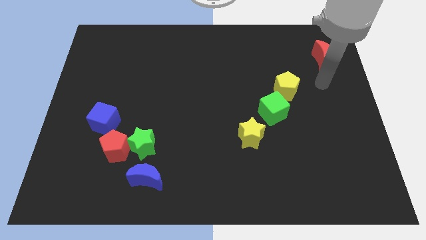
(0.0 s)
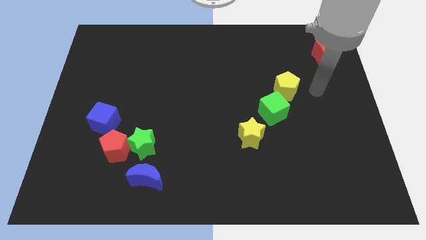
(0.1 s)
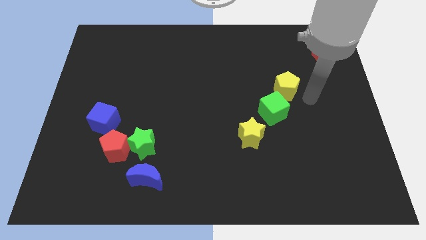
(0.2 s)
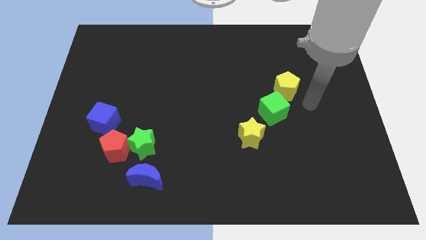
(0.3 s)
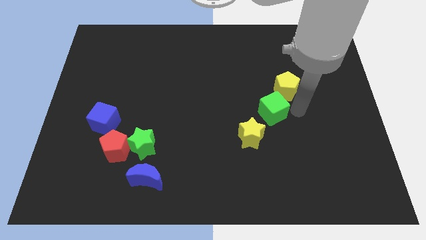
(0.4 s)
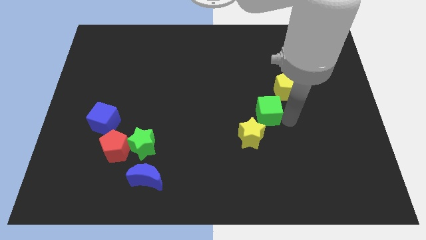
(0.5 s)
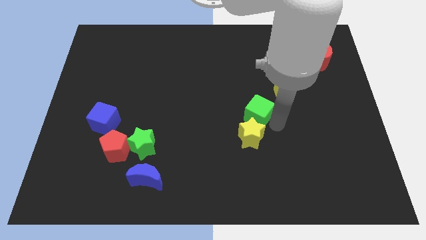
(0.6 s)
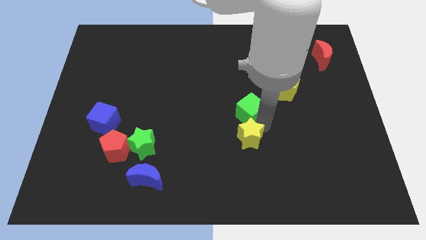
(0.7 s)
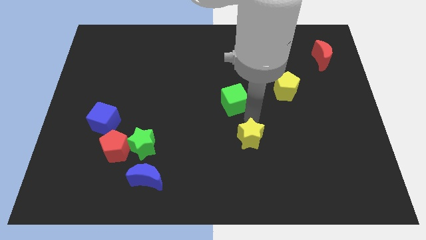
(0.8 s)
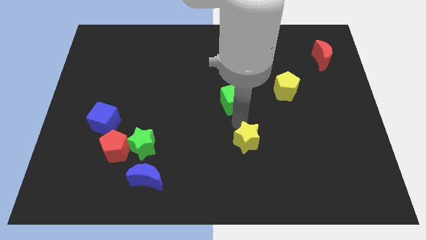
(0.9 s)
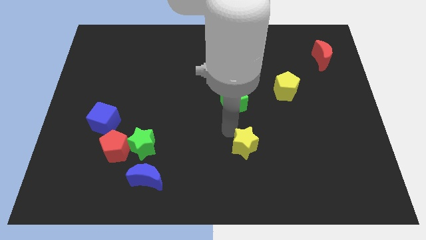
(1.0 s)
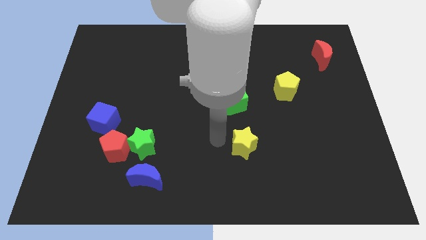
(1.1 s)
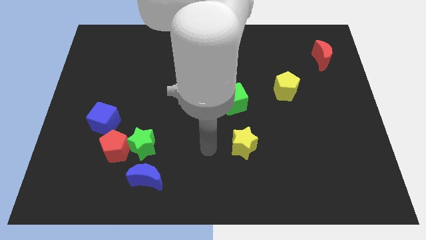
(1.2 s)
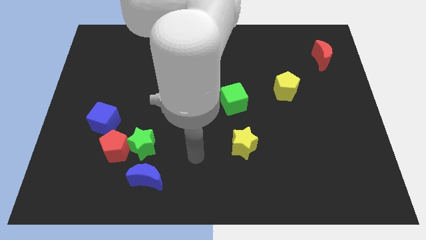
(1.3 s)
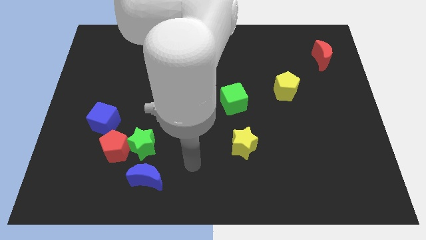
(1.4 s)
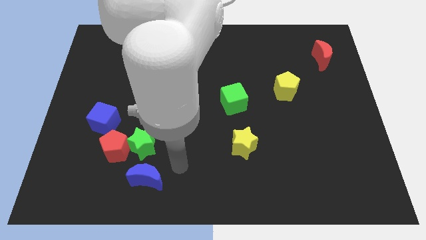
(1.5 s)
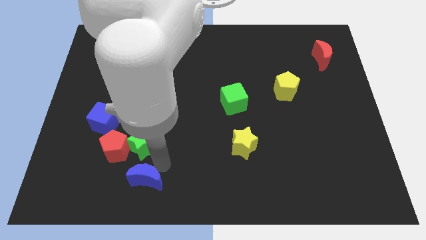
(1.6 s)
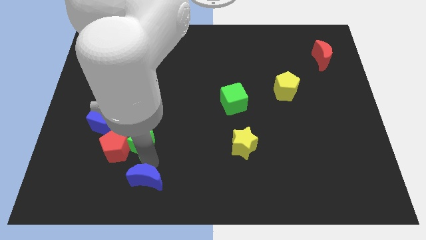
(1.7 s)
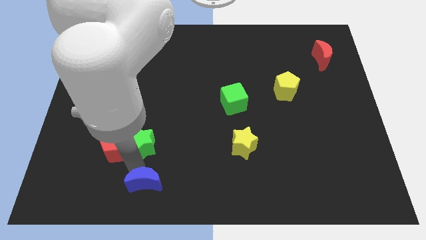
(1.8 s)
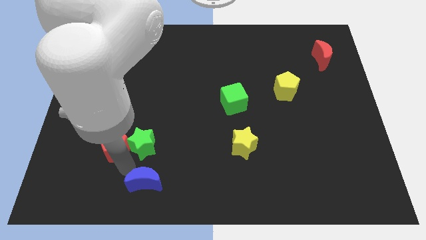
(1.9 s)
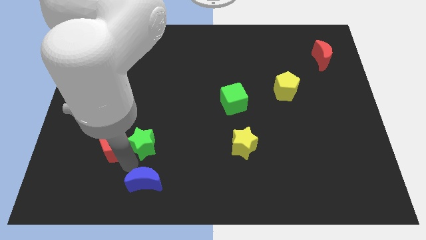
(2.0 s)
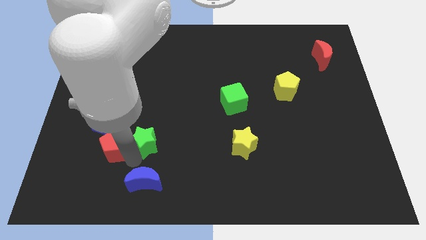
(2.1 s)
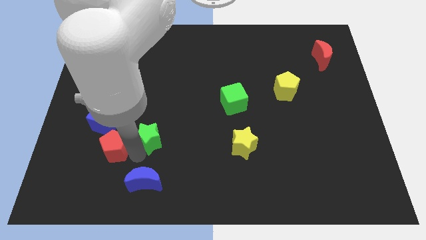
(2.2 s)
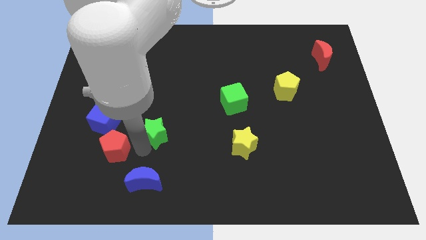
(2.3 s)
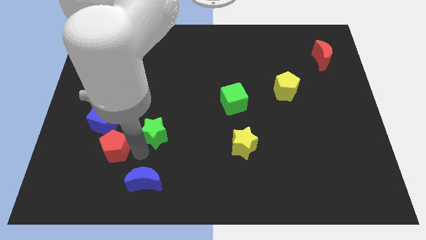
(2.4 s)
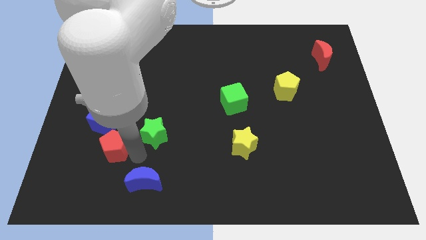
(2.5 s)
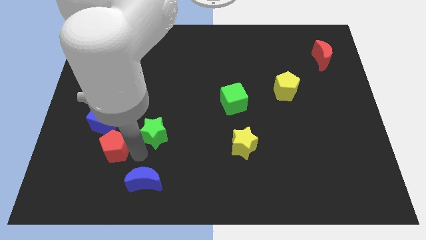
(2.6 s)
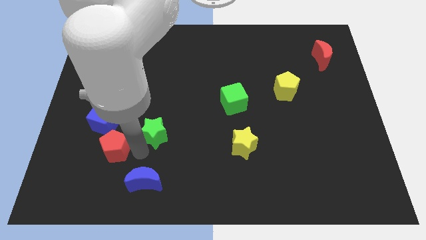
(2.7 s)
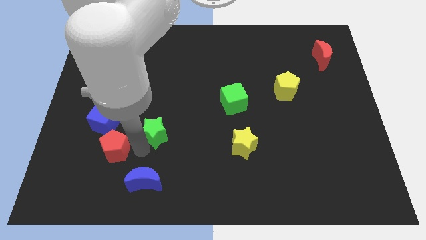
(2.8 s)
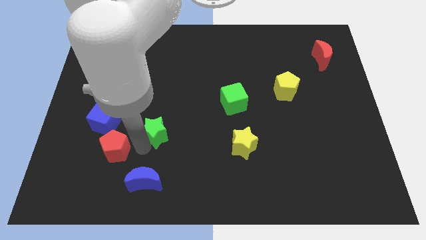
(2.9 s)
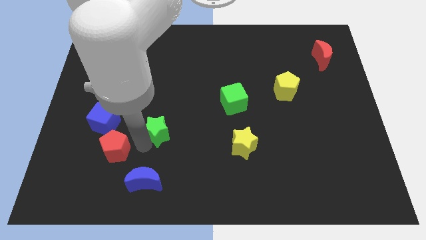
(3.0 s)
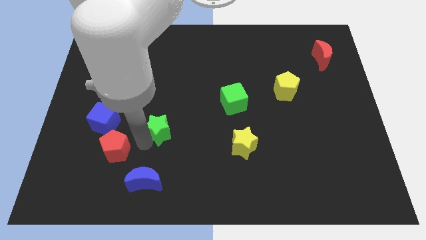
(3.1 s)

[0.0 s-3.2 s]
pull the green star apart from the red pentagon and blue moon

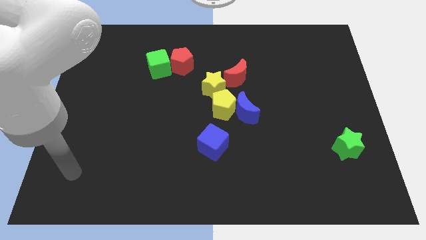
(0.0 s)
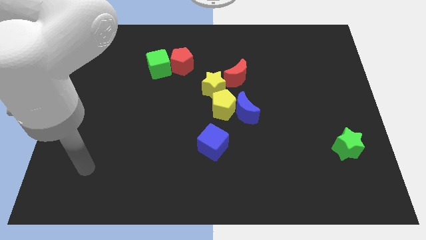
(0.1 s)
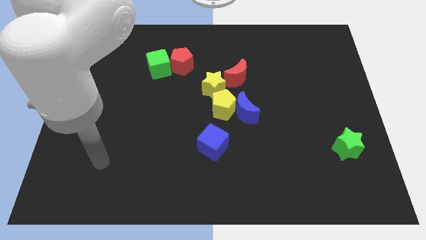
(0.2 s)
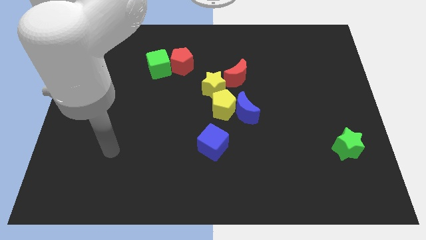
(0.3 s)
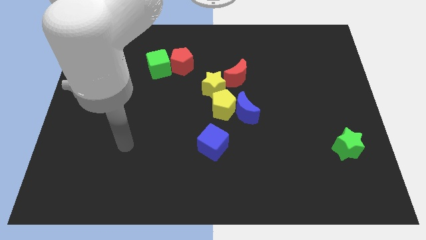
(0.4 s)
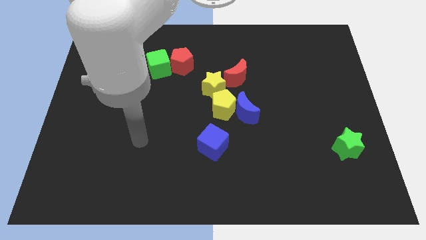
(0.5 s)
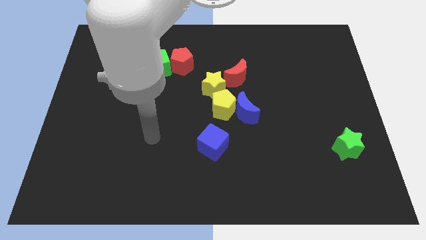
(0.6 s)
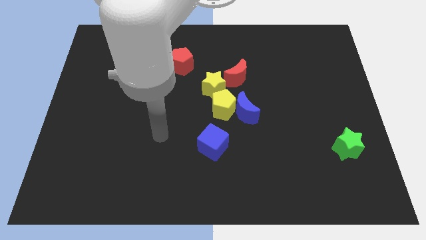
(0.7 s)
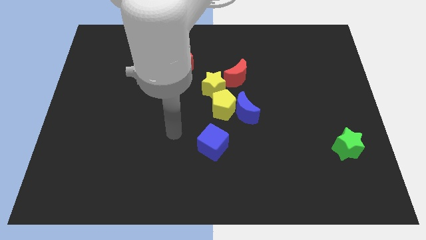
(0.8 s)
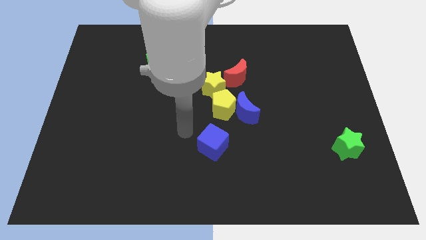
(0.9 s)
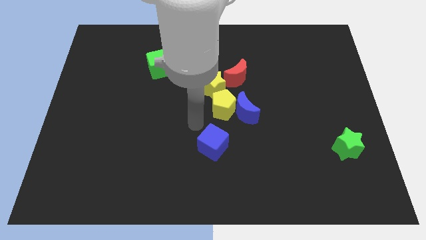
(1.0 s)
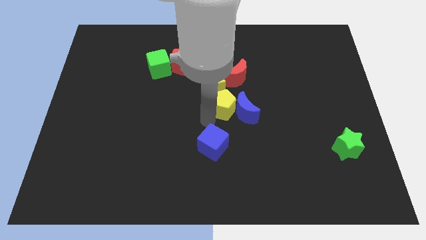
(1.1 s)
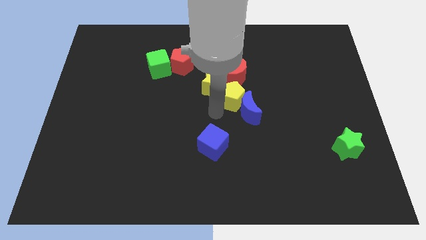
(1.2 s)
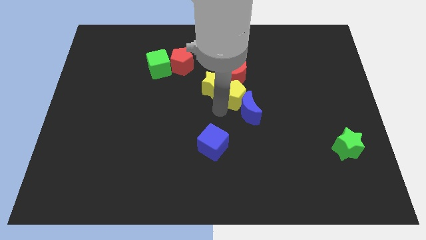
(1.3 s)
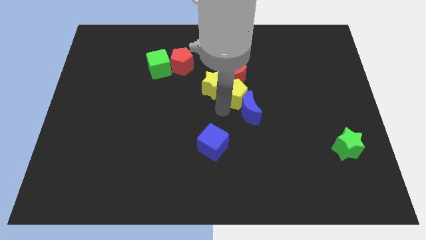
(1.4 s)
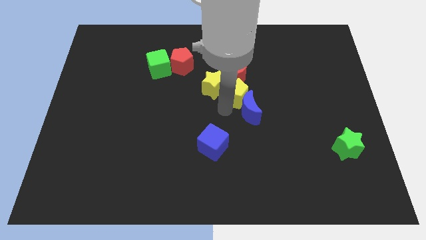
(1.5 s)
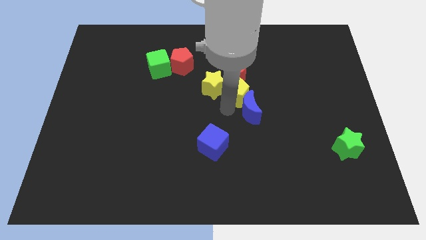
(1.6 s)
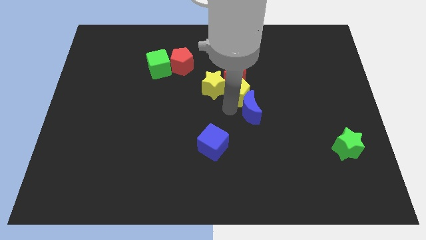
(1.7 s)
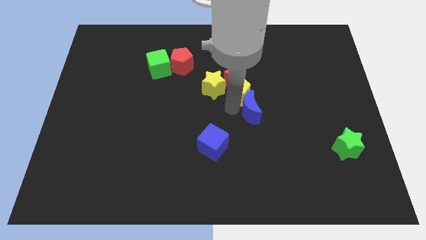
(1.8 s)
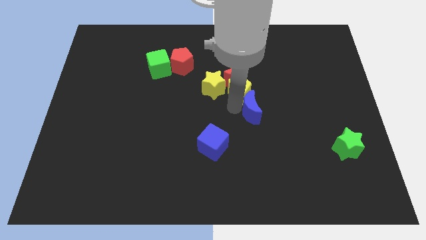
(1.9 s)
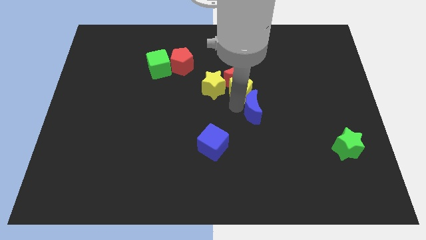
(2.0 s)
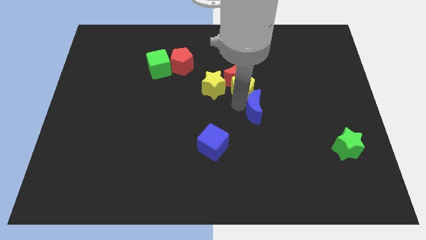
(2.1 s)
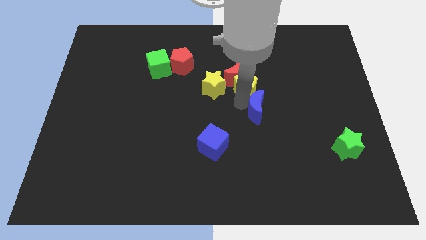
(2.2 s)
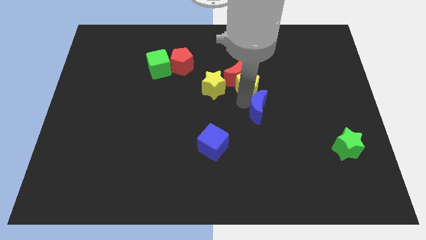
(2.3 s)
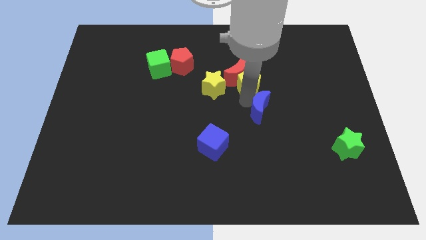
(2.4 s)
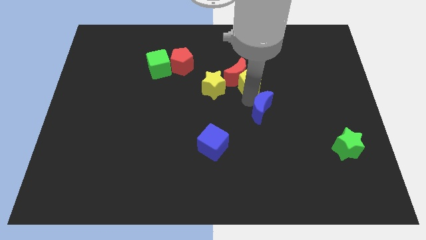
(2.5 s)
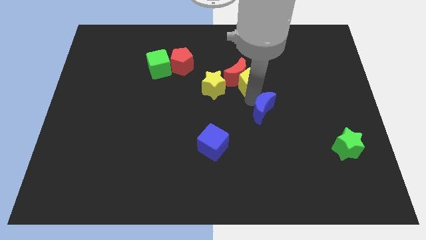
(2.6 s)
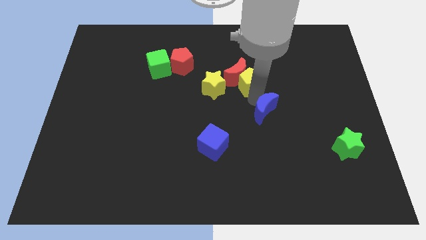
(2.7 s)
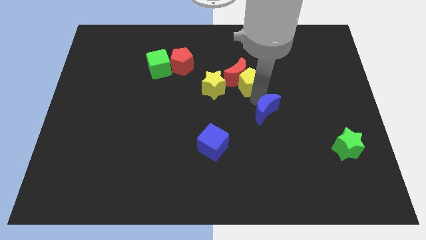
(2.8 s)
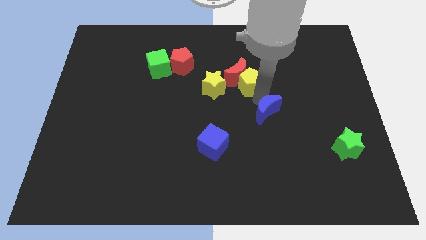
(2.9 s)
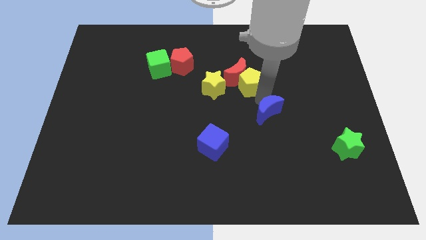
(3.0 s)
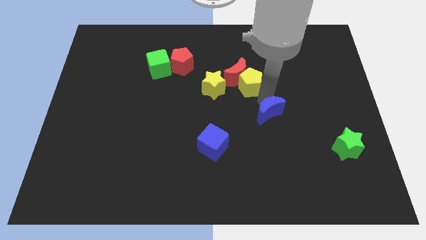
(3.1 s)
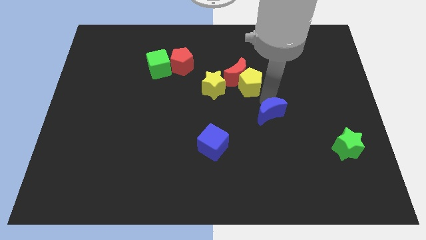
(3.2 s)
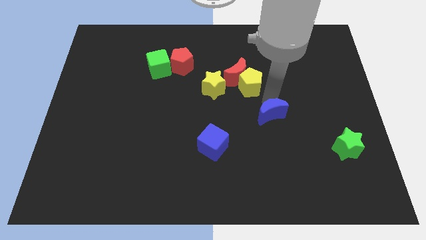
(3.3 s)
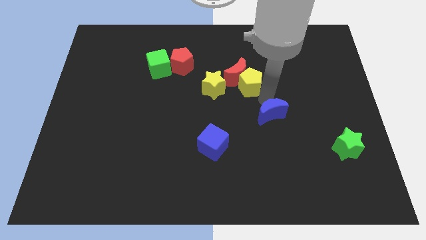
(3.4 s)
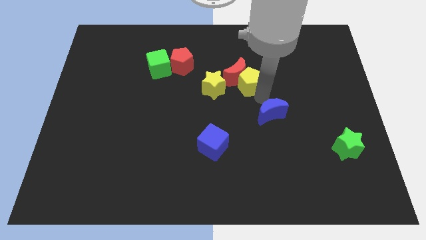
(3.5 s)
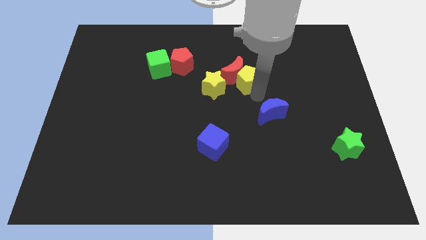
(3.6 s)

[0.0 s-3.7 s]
separate the blue moon from the yellow pentagon

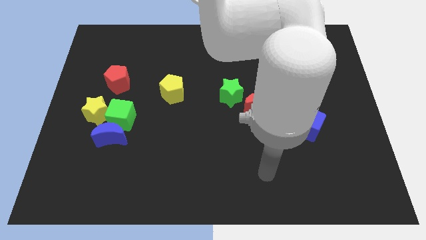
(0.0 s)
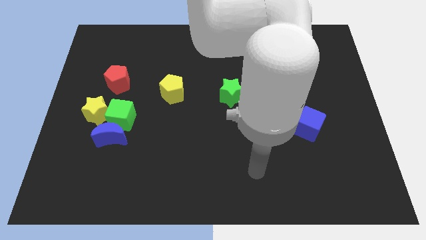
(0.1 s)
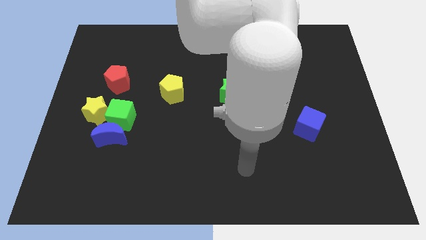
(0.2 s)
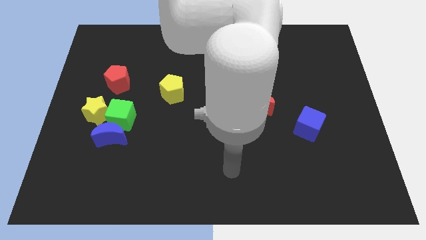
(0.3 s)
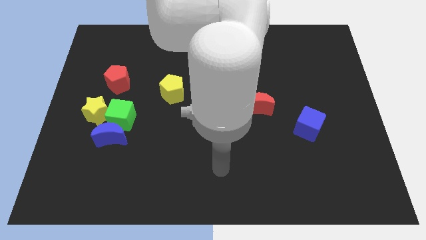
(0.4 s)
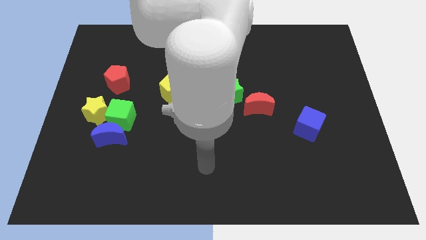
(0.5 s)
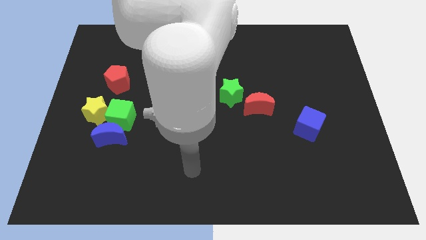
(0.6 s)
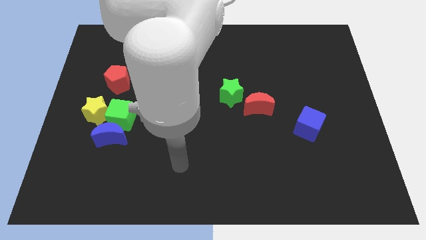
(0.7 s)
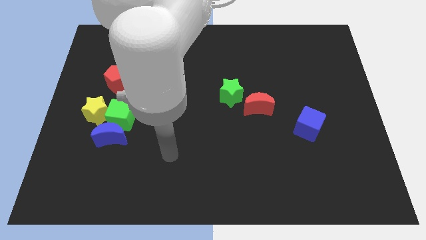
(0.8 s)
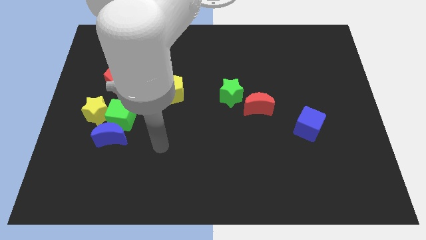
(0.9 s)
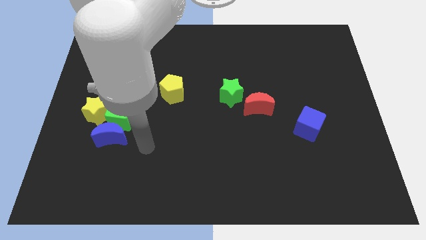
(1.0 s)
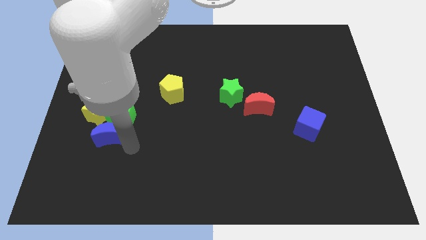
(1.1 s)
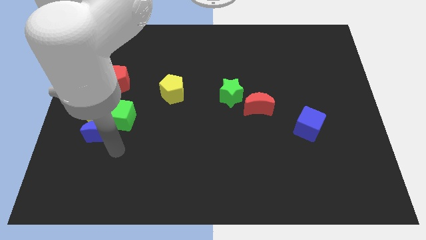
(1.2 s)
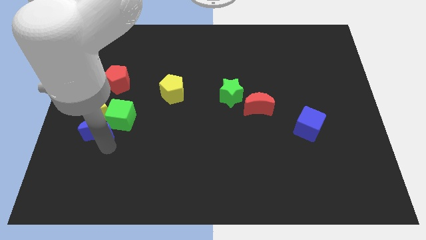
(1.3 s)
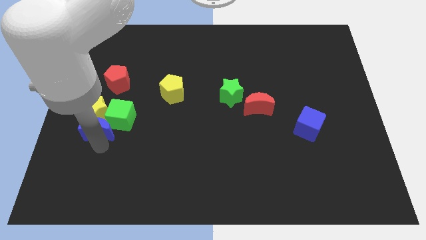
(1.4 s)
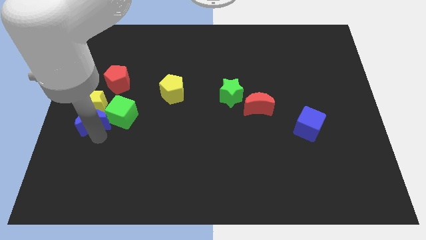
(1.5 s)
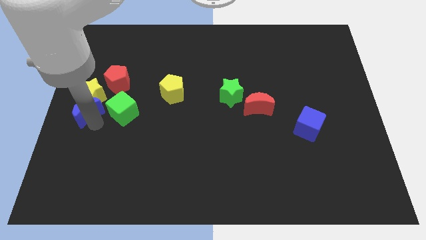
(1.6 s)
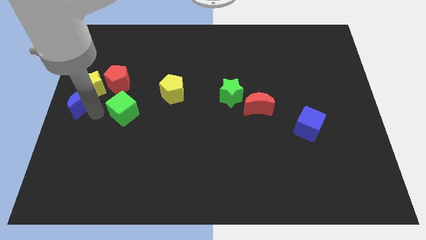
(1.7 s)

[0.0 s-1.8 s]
move the green cube away from the blue moon and yellow star

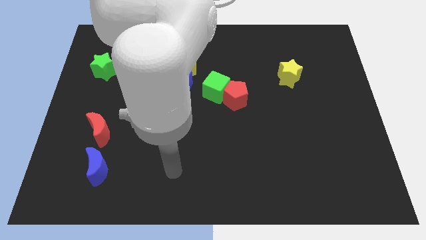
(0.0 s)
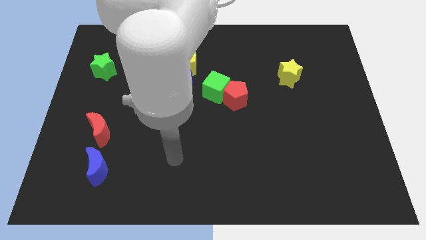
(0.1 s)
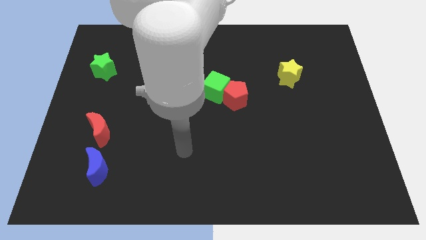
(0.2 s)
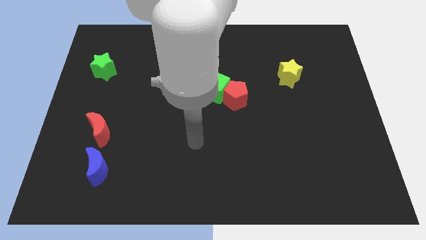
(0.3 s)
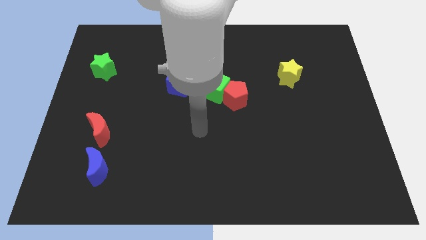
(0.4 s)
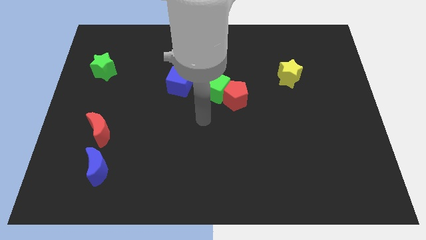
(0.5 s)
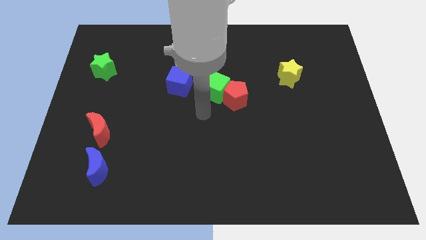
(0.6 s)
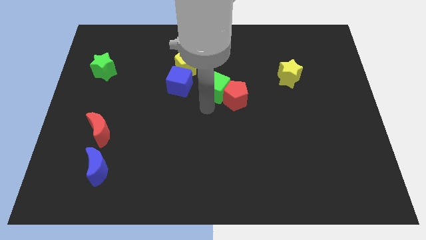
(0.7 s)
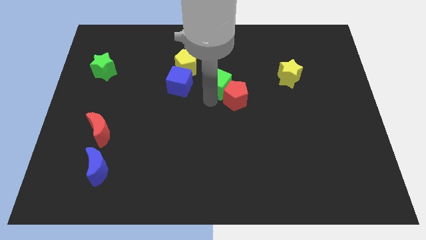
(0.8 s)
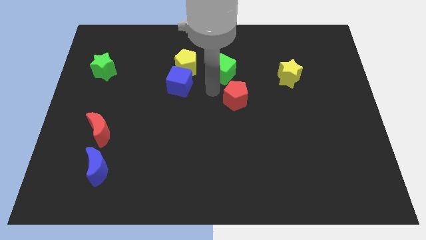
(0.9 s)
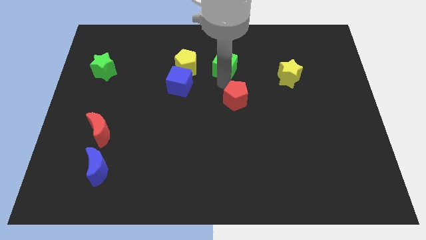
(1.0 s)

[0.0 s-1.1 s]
pull the red pentagon apart from the green cube
